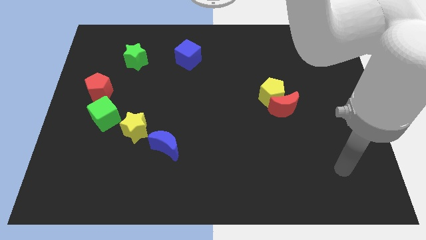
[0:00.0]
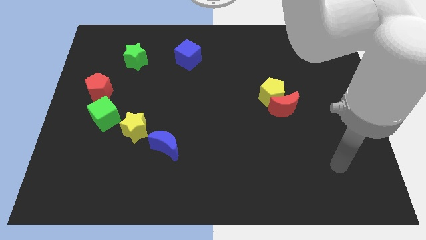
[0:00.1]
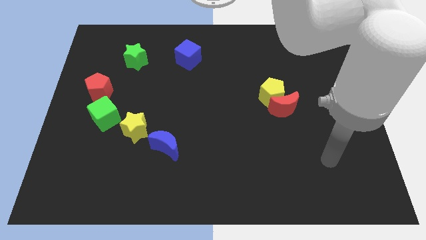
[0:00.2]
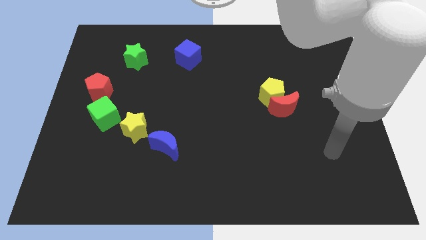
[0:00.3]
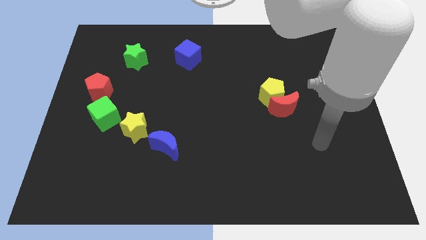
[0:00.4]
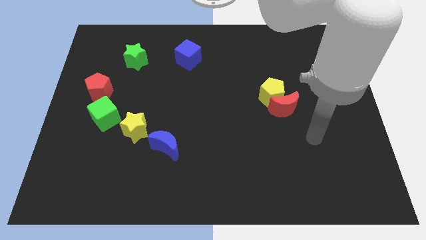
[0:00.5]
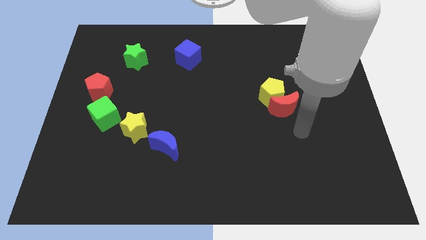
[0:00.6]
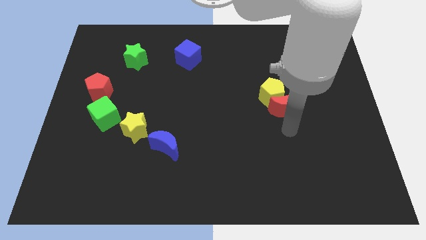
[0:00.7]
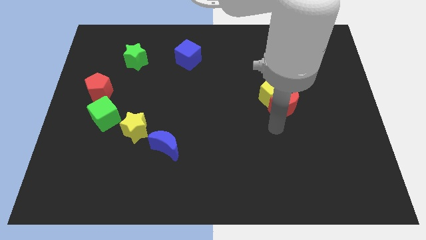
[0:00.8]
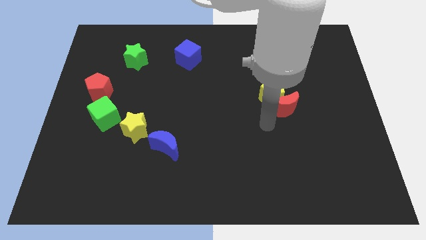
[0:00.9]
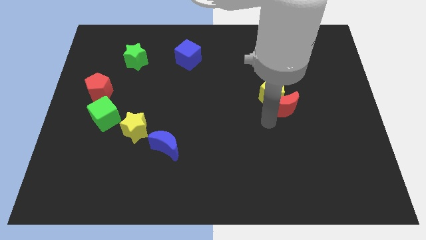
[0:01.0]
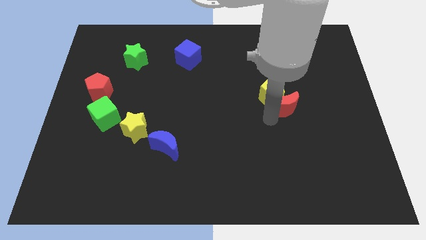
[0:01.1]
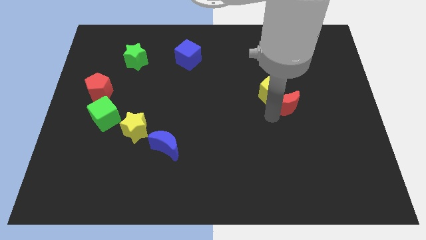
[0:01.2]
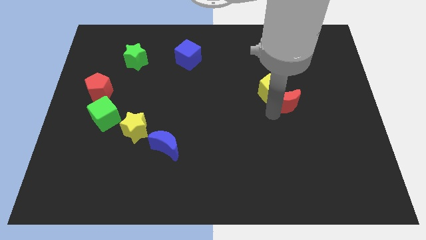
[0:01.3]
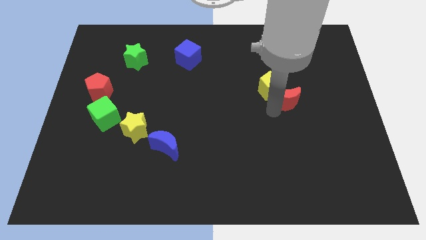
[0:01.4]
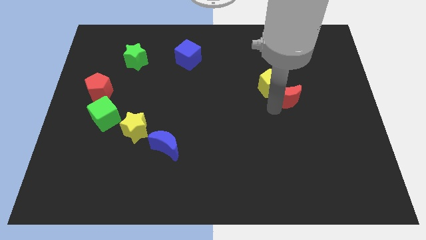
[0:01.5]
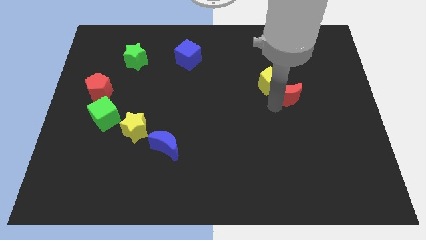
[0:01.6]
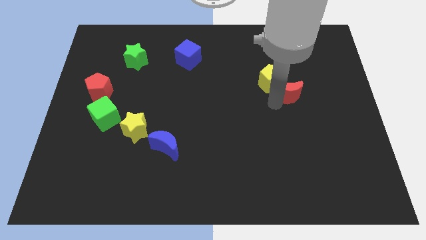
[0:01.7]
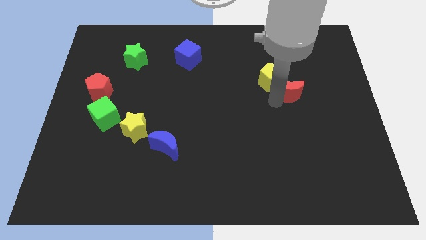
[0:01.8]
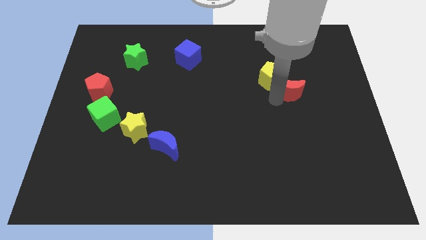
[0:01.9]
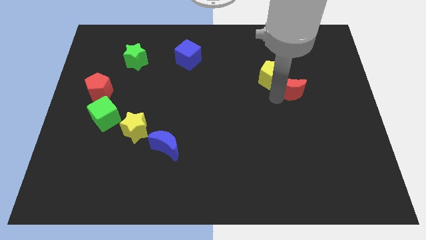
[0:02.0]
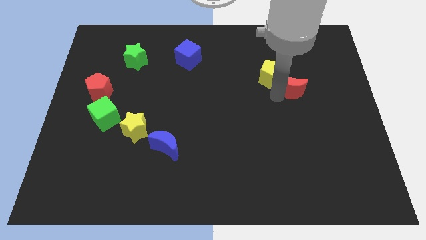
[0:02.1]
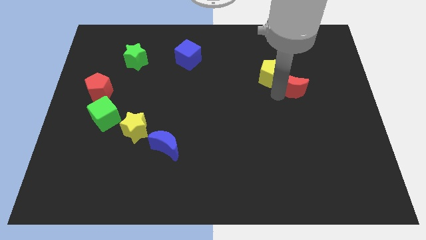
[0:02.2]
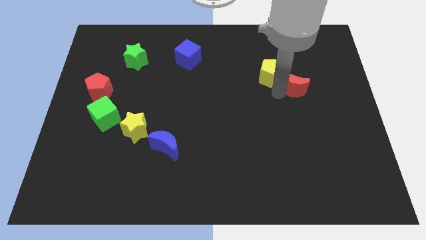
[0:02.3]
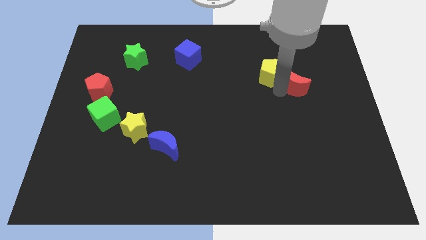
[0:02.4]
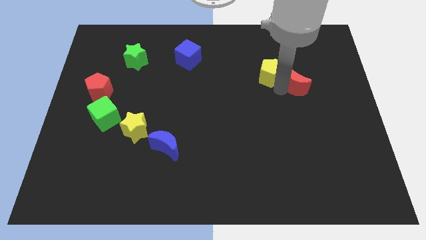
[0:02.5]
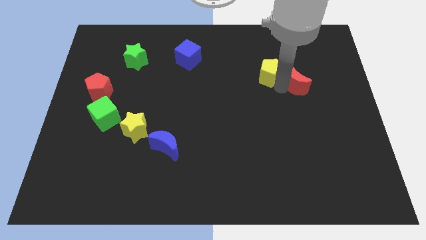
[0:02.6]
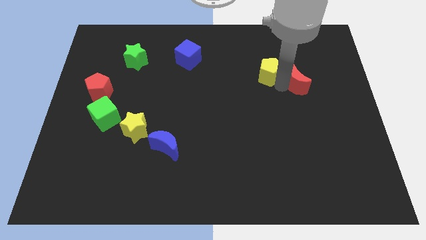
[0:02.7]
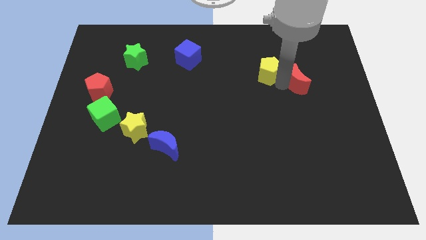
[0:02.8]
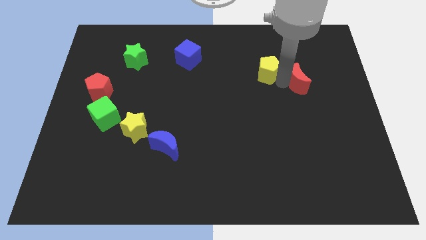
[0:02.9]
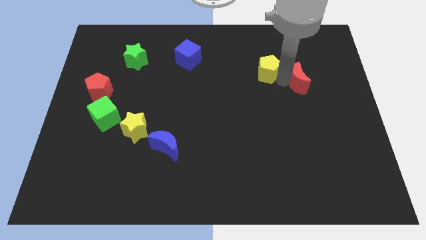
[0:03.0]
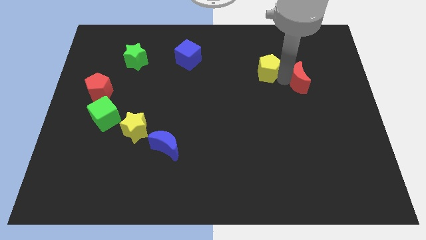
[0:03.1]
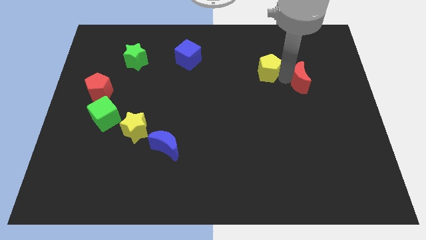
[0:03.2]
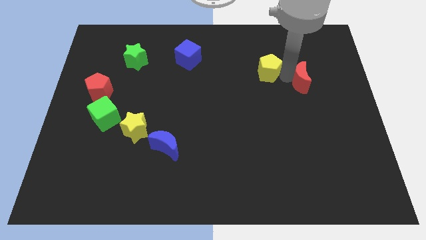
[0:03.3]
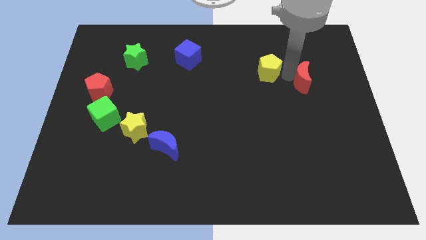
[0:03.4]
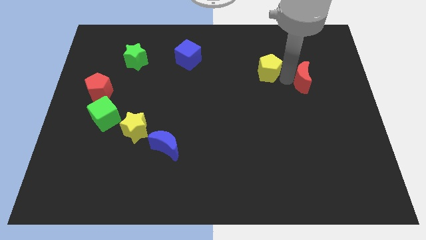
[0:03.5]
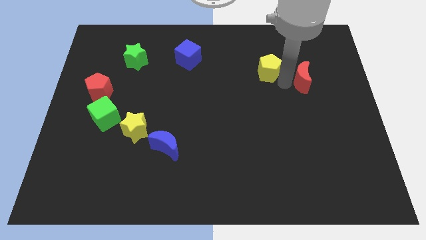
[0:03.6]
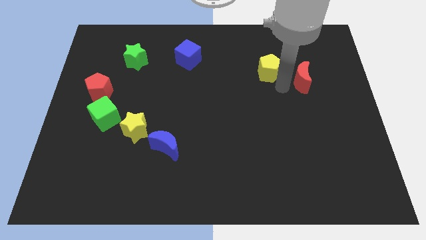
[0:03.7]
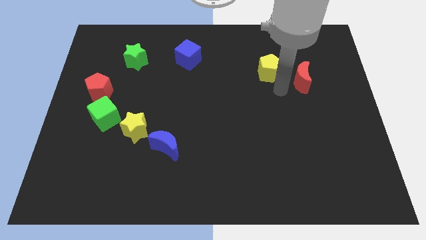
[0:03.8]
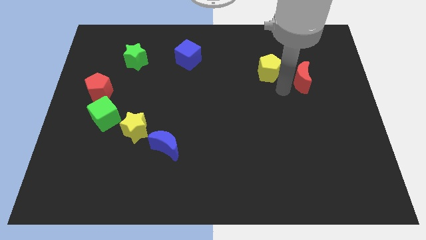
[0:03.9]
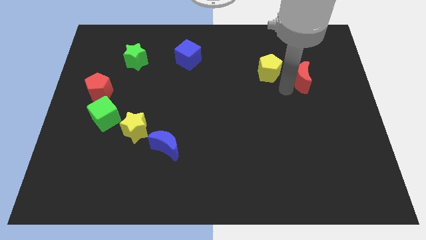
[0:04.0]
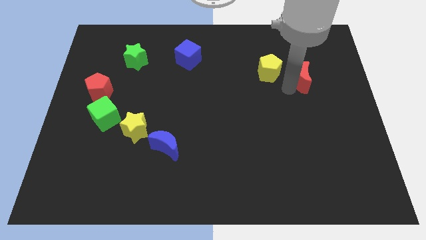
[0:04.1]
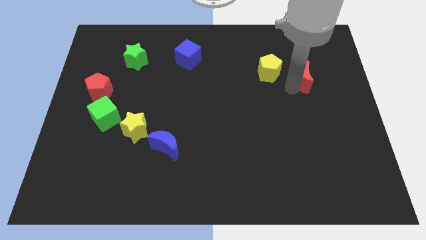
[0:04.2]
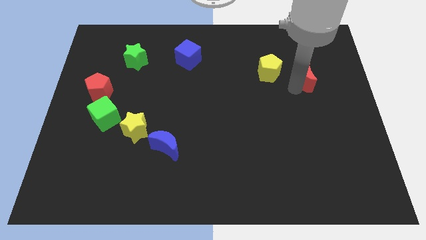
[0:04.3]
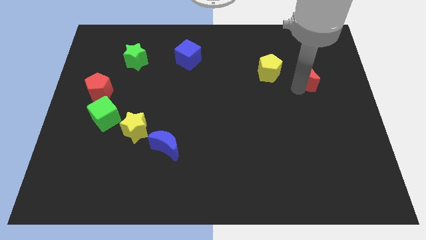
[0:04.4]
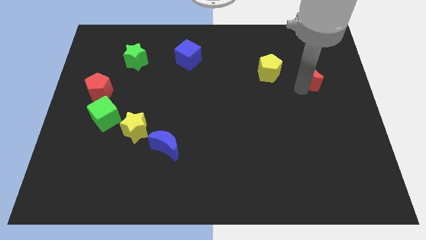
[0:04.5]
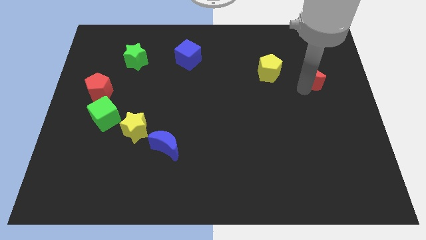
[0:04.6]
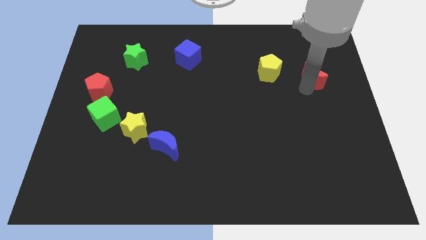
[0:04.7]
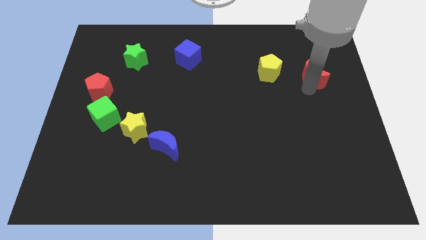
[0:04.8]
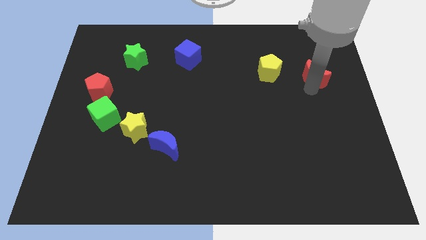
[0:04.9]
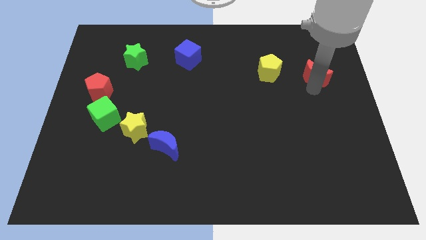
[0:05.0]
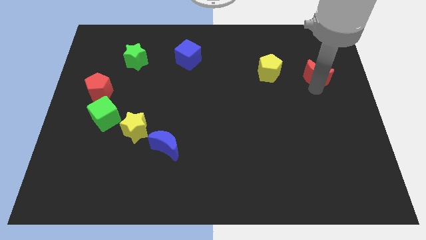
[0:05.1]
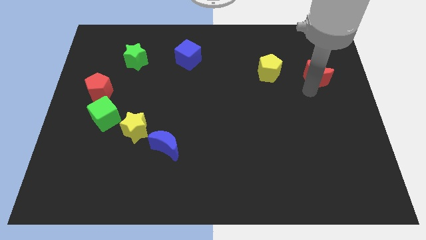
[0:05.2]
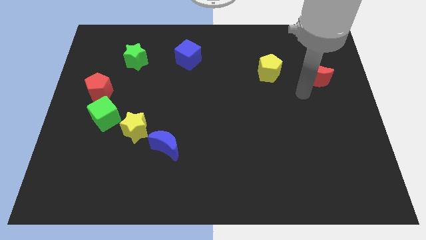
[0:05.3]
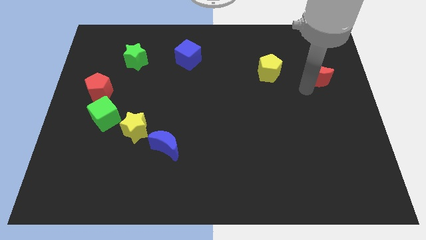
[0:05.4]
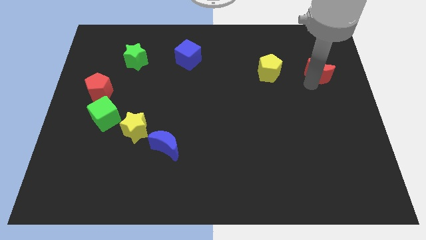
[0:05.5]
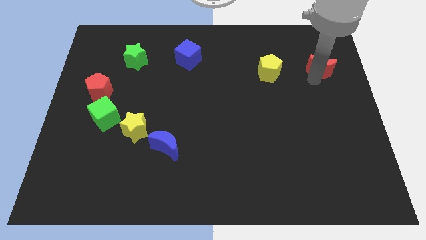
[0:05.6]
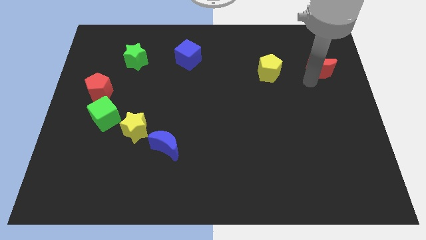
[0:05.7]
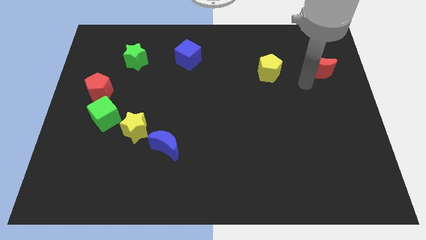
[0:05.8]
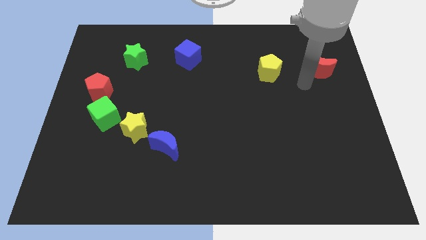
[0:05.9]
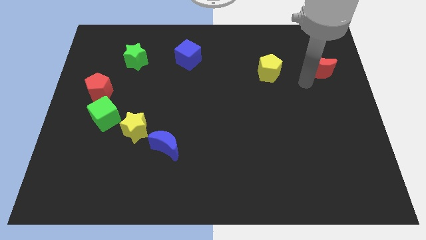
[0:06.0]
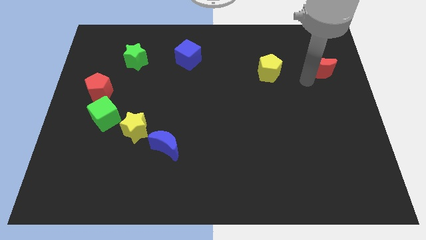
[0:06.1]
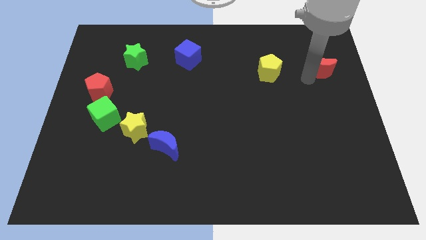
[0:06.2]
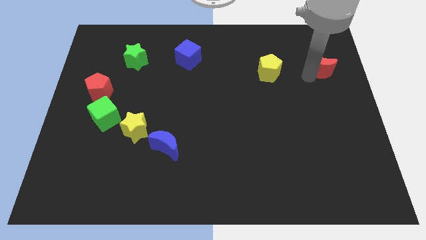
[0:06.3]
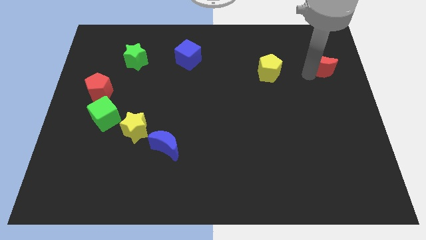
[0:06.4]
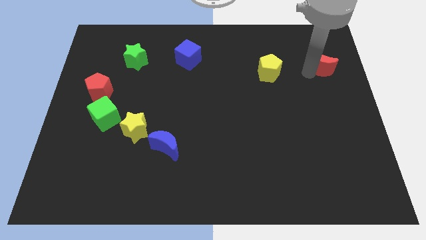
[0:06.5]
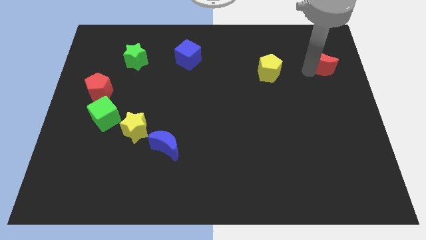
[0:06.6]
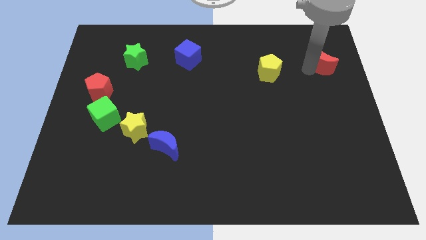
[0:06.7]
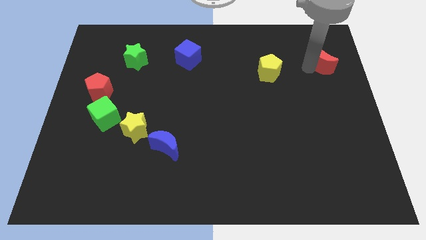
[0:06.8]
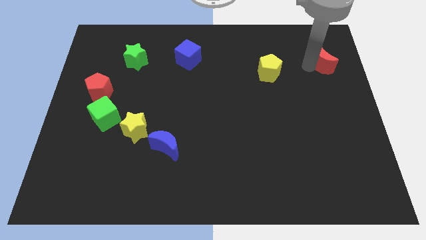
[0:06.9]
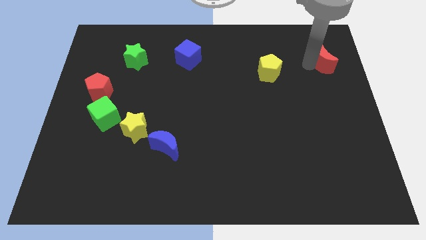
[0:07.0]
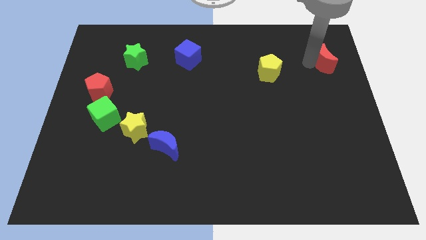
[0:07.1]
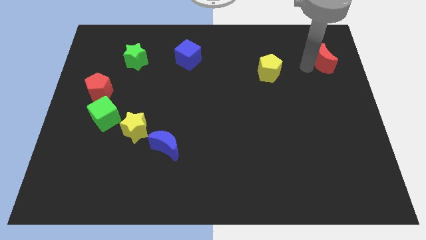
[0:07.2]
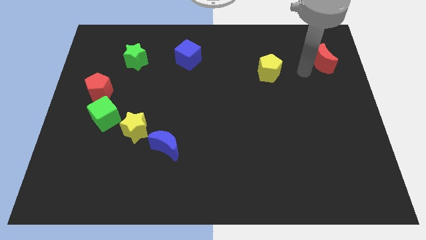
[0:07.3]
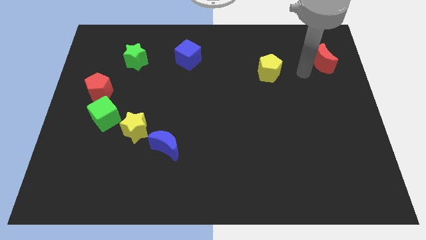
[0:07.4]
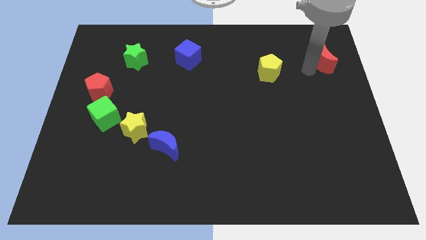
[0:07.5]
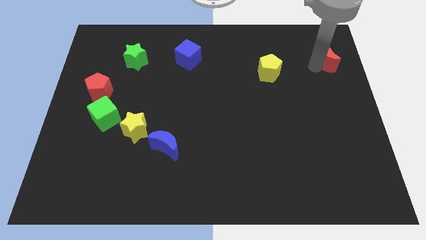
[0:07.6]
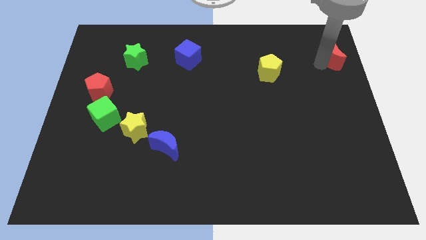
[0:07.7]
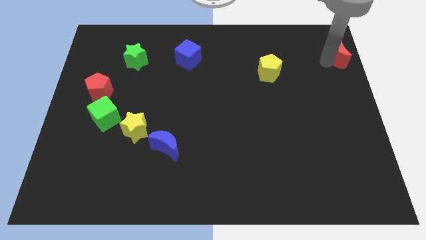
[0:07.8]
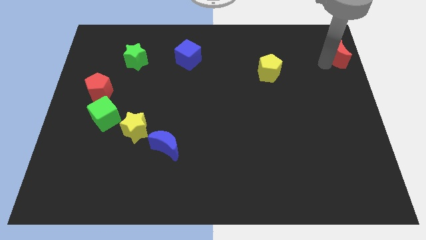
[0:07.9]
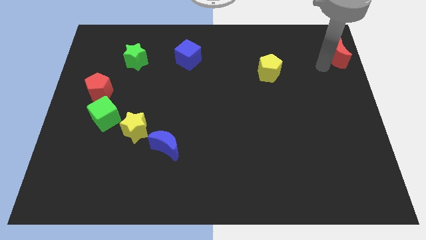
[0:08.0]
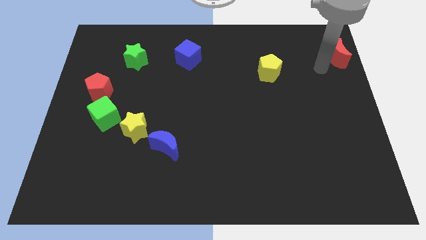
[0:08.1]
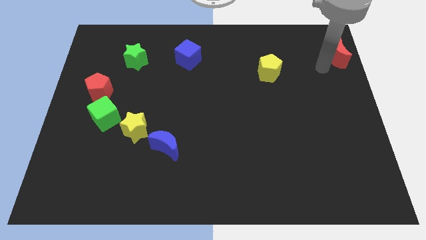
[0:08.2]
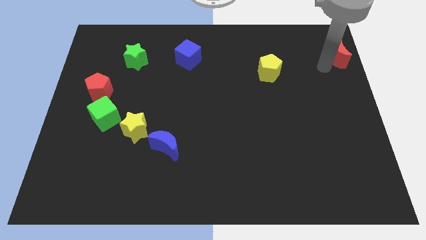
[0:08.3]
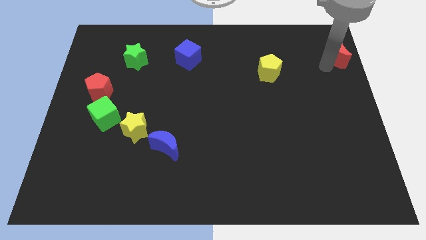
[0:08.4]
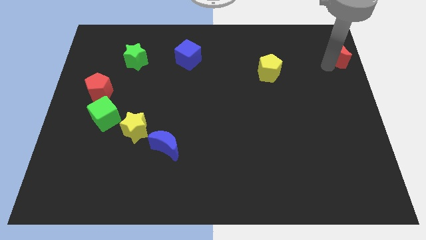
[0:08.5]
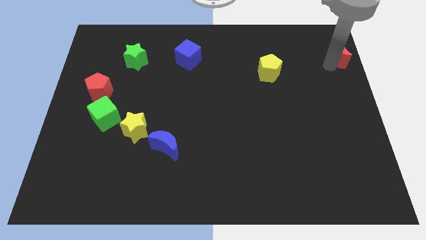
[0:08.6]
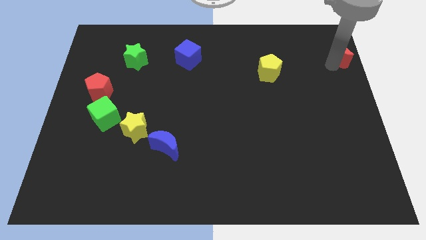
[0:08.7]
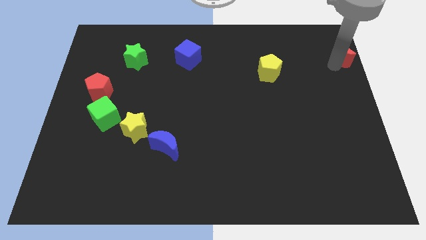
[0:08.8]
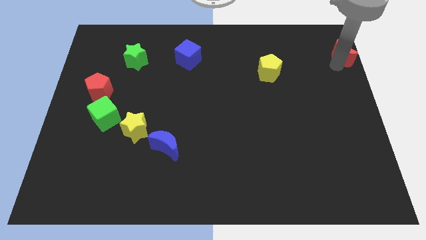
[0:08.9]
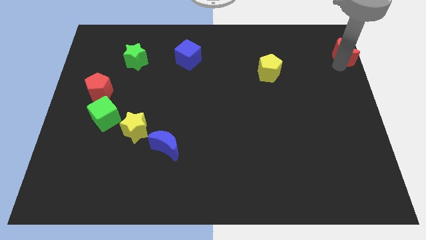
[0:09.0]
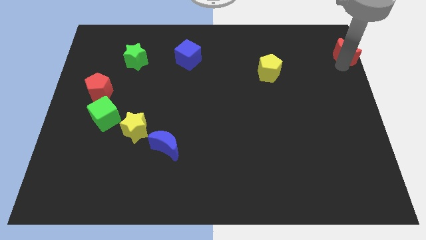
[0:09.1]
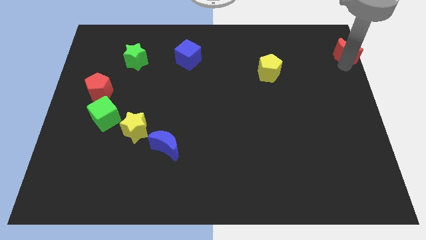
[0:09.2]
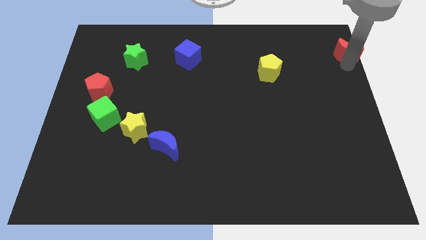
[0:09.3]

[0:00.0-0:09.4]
put the red moon to the top right of the board
